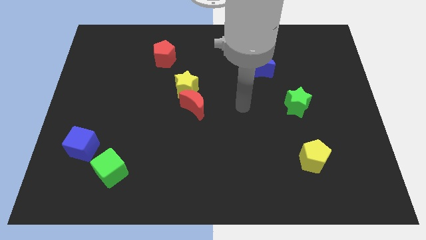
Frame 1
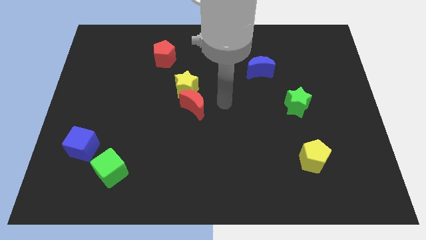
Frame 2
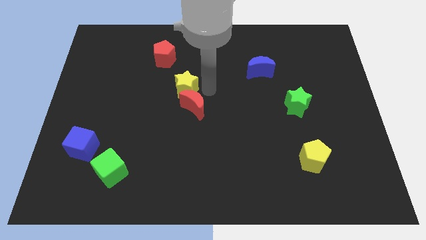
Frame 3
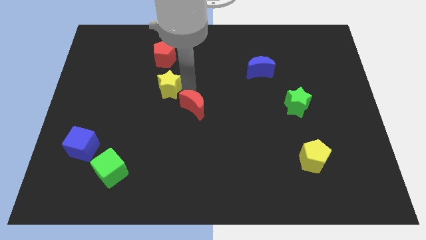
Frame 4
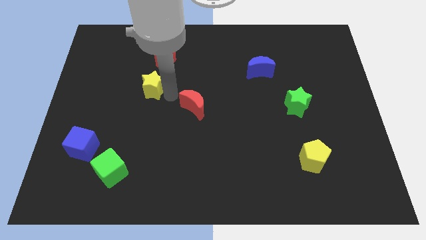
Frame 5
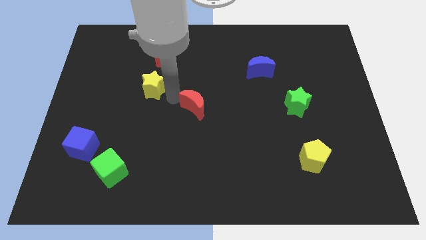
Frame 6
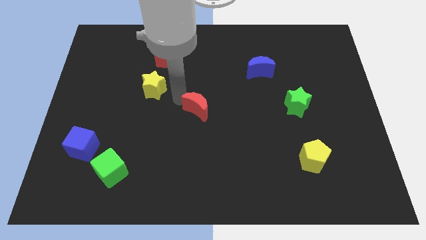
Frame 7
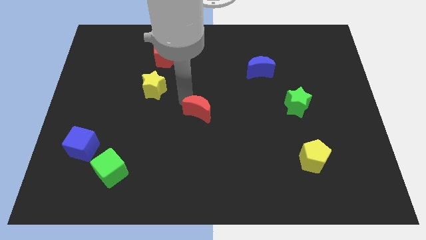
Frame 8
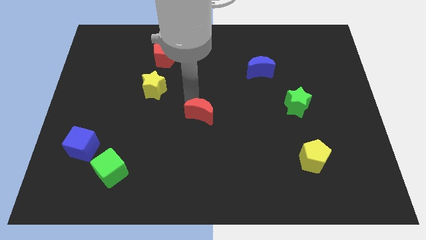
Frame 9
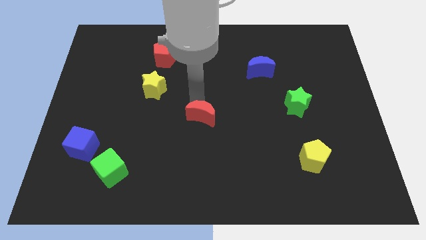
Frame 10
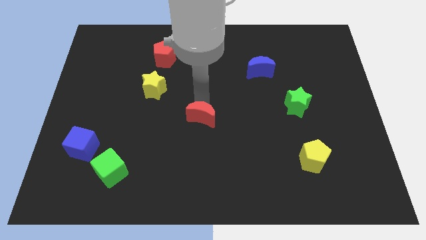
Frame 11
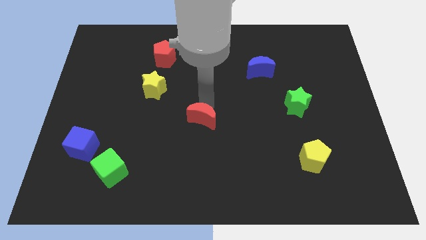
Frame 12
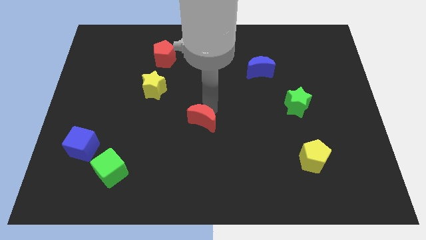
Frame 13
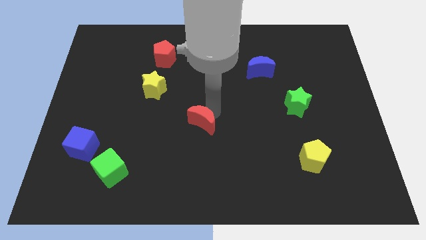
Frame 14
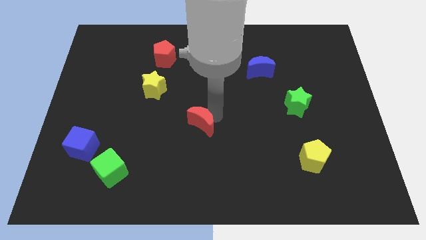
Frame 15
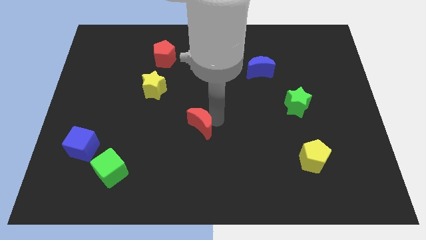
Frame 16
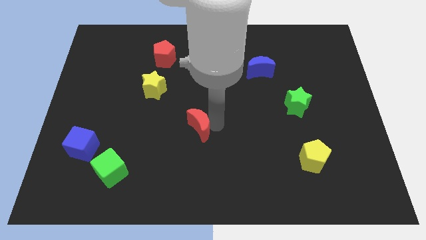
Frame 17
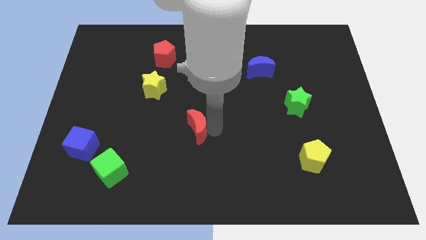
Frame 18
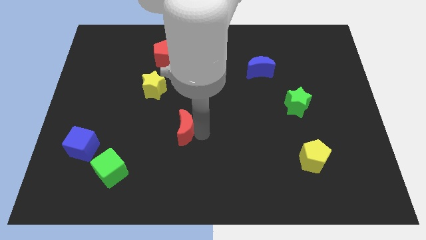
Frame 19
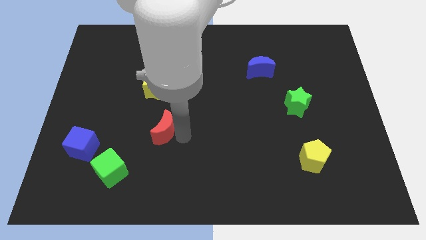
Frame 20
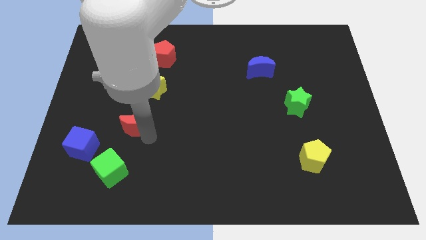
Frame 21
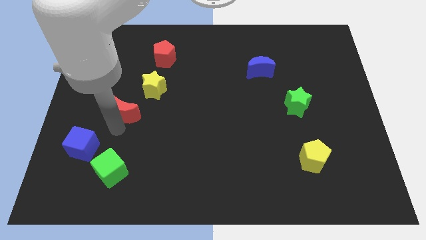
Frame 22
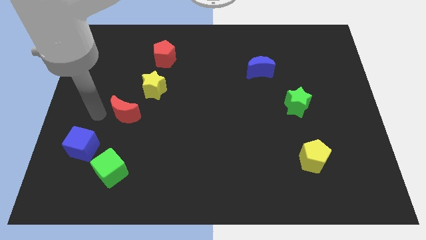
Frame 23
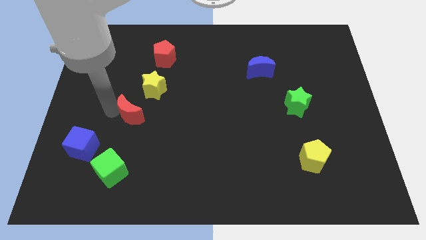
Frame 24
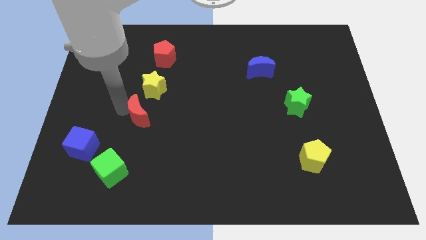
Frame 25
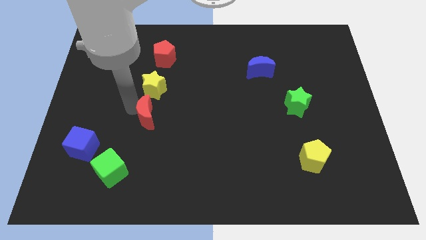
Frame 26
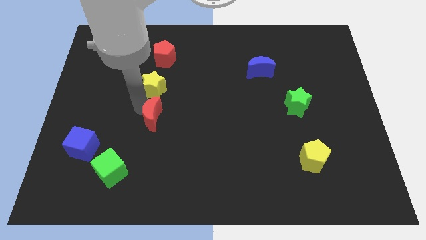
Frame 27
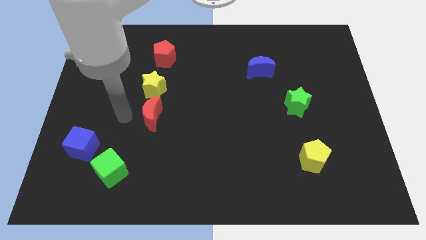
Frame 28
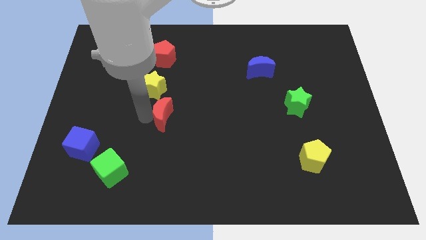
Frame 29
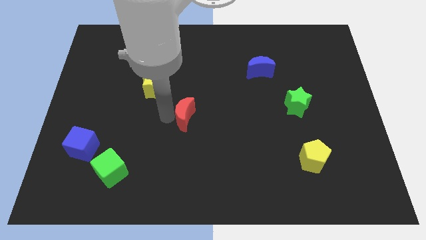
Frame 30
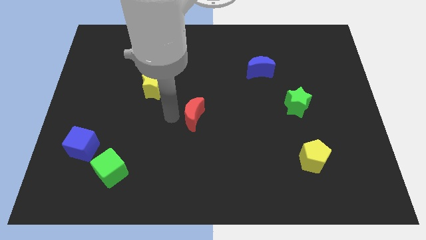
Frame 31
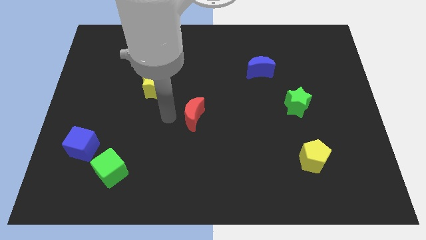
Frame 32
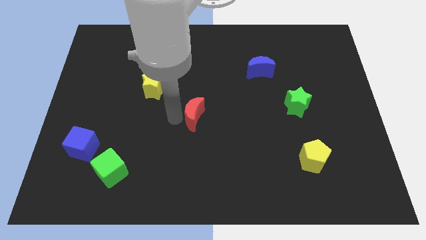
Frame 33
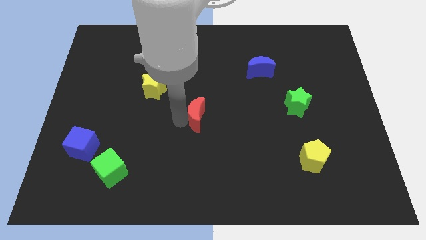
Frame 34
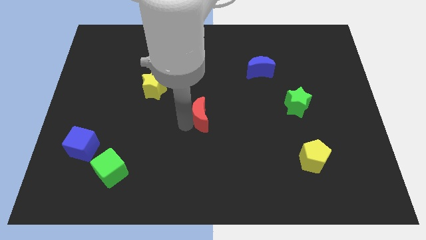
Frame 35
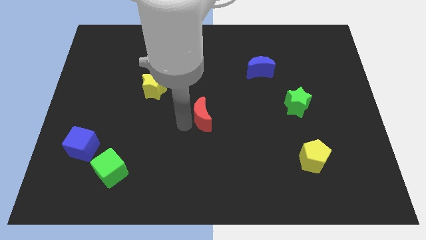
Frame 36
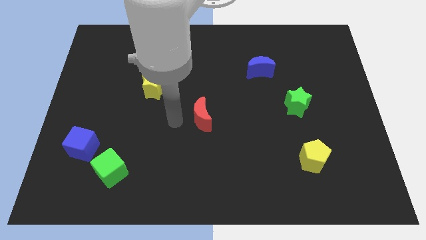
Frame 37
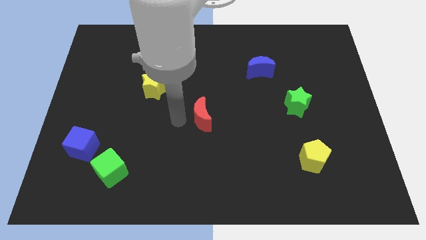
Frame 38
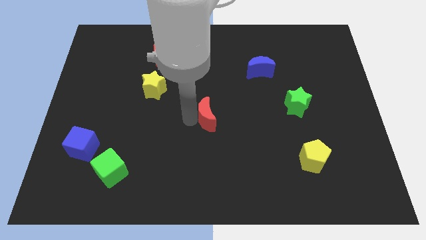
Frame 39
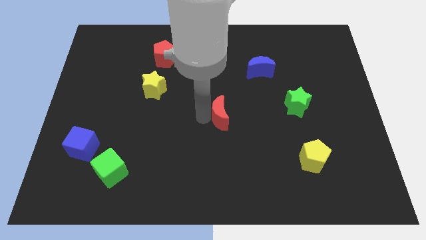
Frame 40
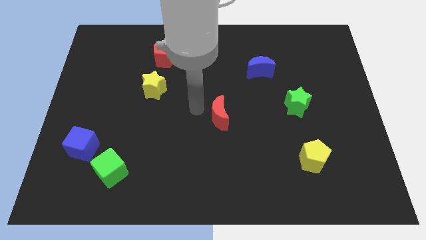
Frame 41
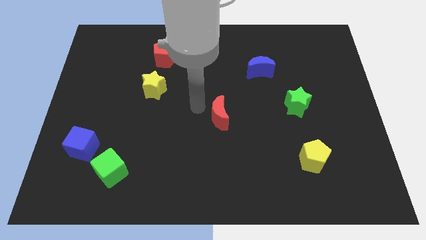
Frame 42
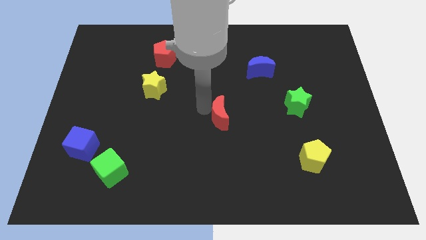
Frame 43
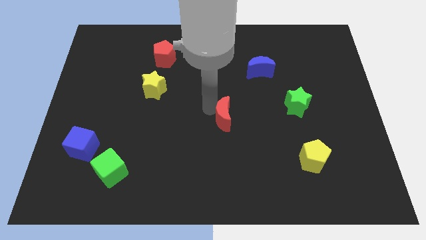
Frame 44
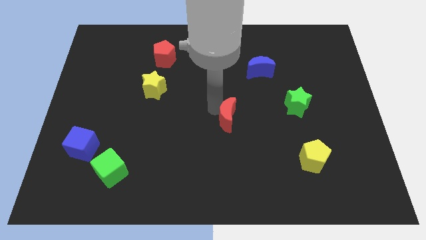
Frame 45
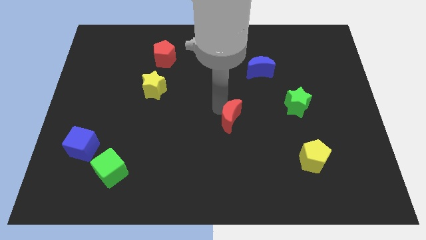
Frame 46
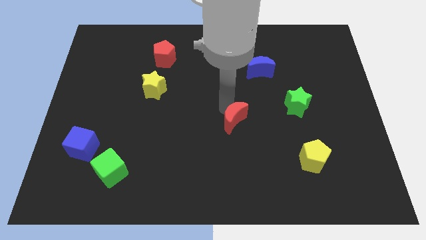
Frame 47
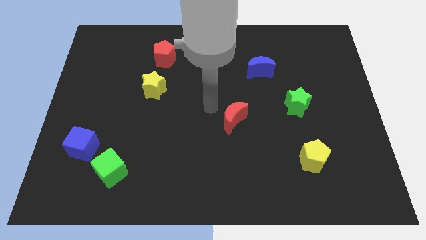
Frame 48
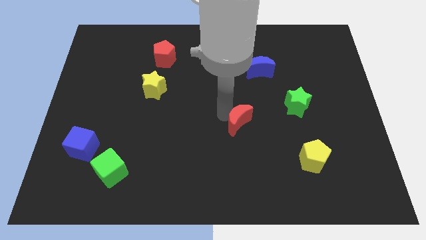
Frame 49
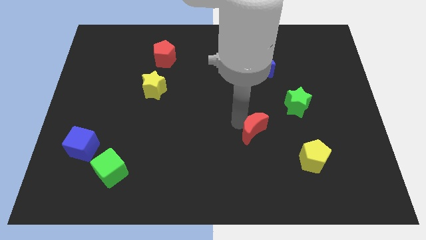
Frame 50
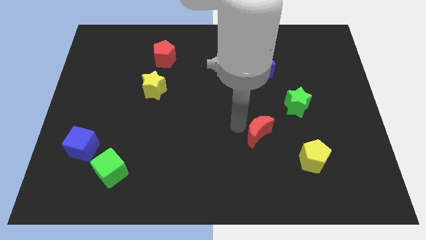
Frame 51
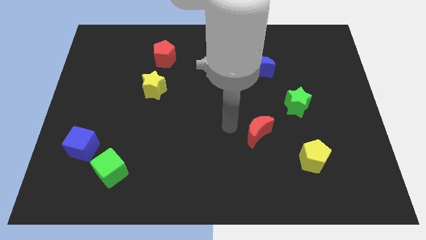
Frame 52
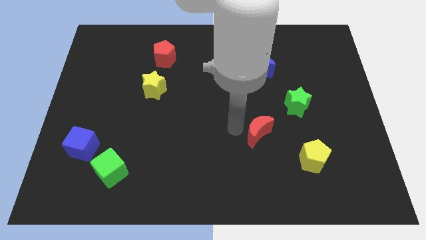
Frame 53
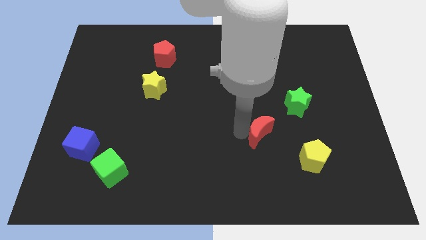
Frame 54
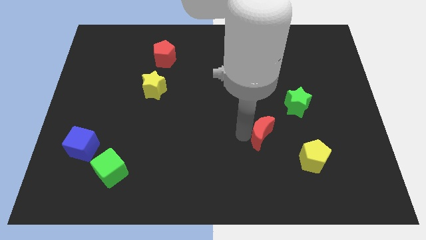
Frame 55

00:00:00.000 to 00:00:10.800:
move the red moon to the top left side of the yellow pentagon

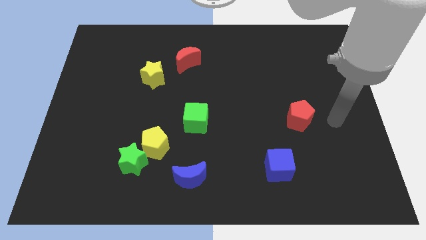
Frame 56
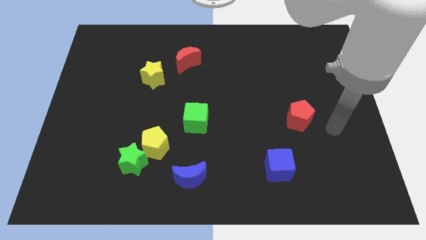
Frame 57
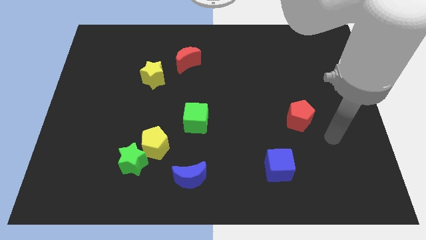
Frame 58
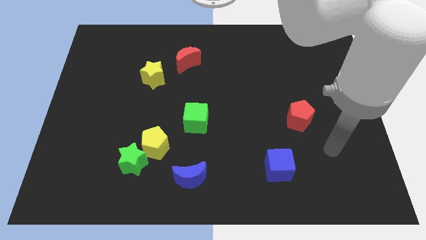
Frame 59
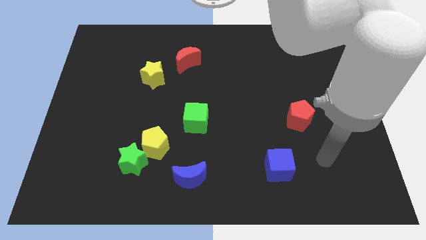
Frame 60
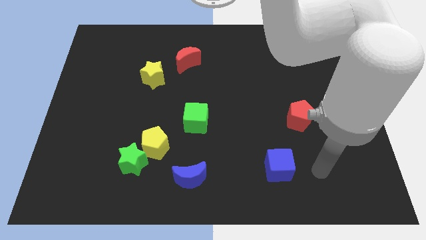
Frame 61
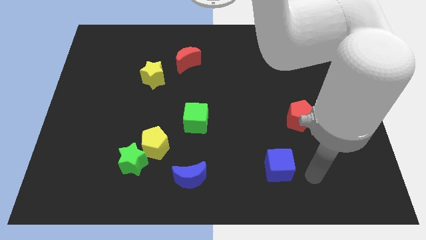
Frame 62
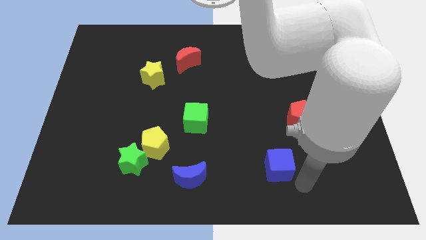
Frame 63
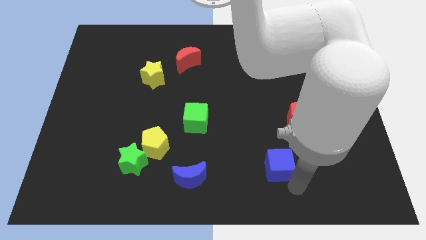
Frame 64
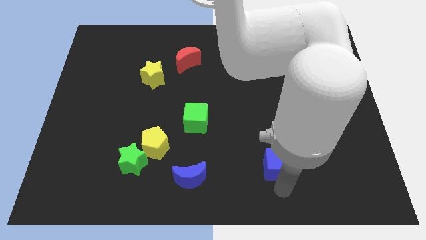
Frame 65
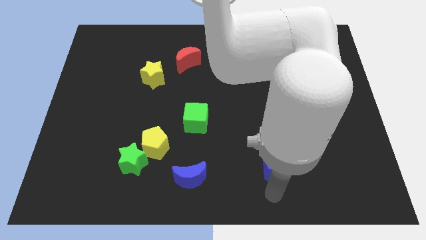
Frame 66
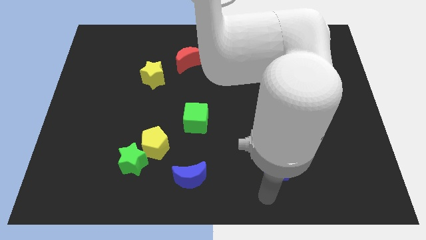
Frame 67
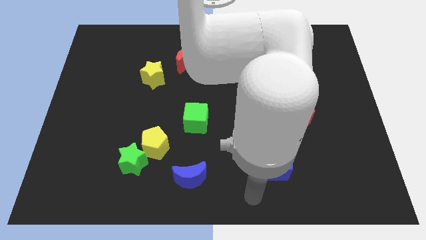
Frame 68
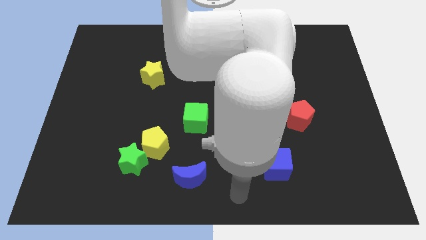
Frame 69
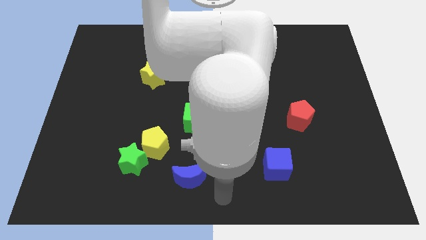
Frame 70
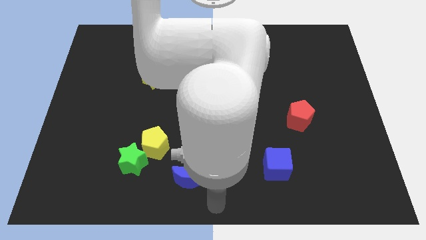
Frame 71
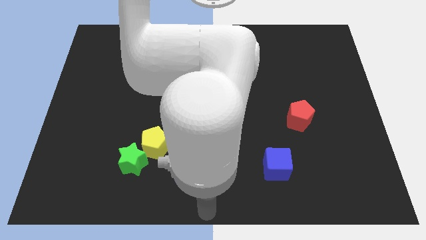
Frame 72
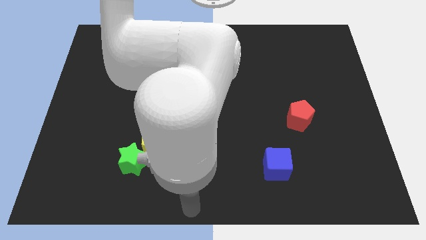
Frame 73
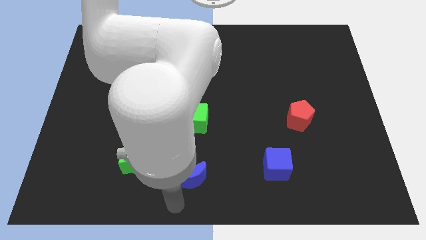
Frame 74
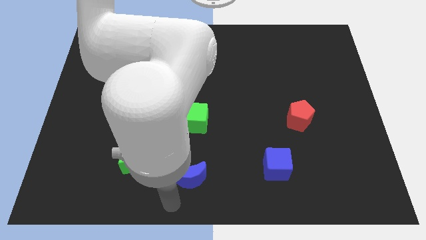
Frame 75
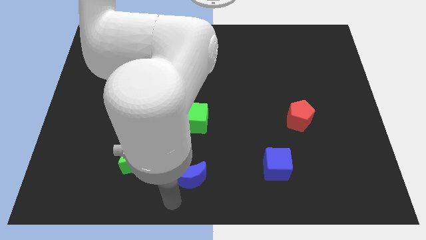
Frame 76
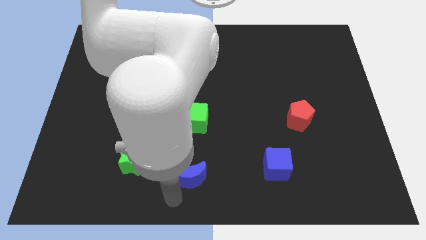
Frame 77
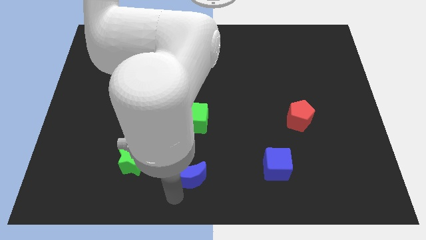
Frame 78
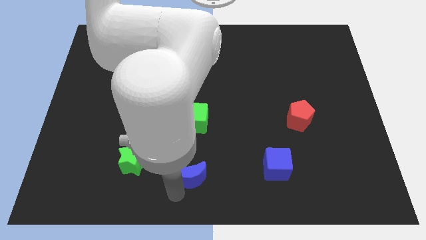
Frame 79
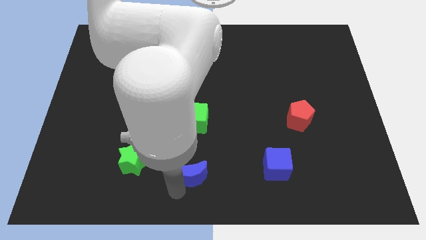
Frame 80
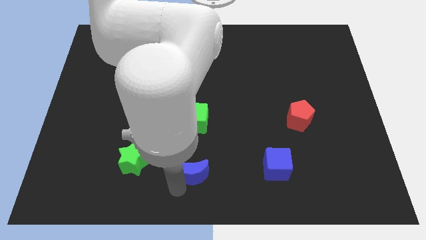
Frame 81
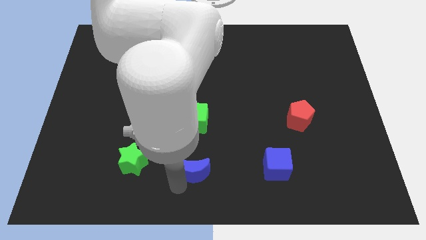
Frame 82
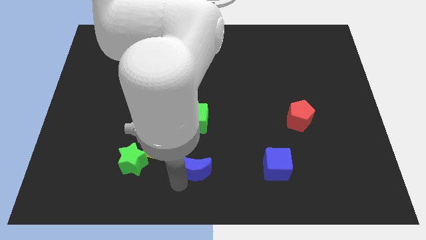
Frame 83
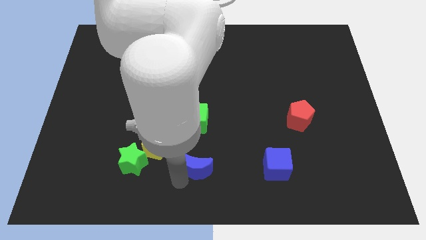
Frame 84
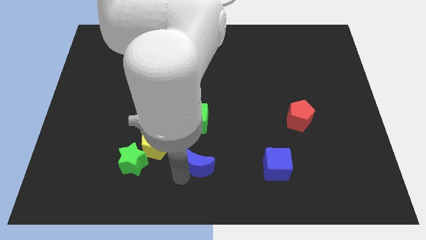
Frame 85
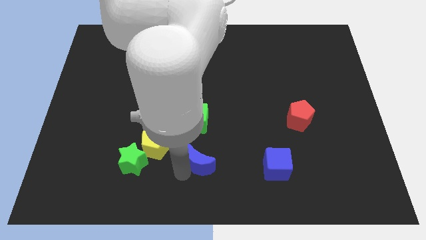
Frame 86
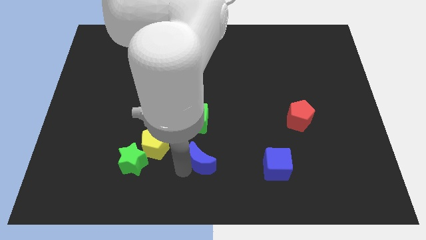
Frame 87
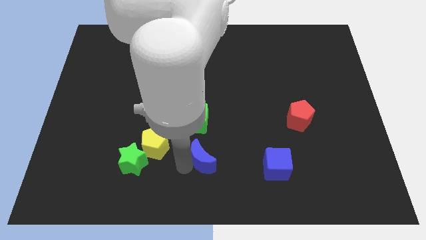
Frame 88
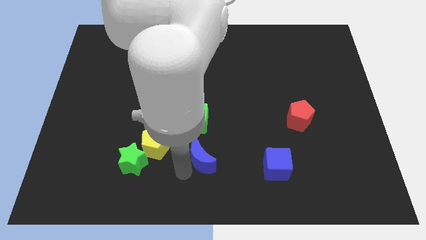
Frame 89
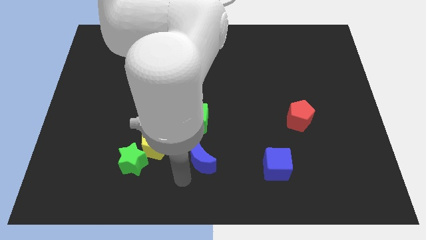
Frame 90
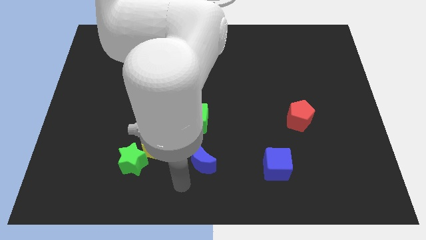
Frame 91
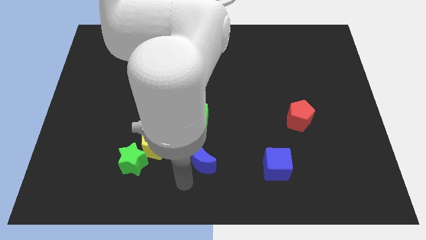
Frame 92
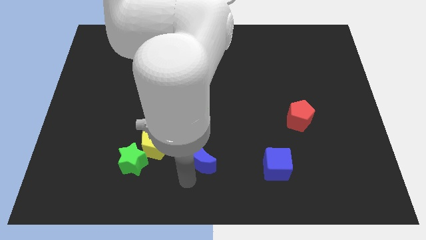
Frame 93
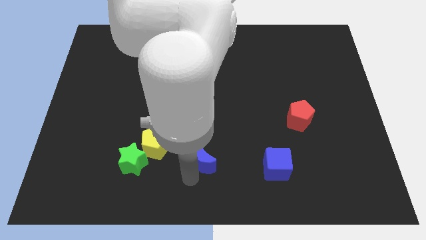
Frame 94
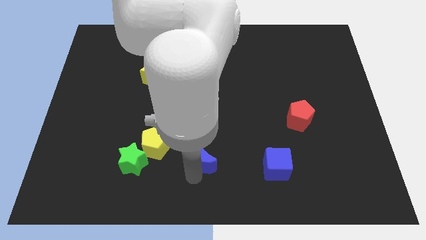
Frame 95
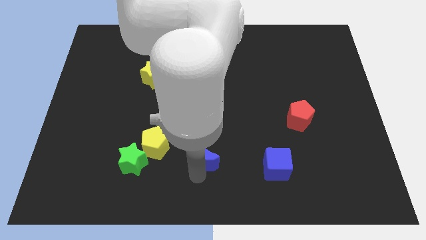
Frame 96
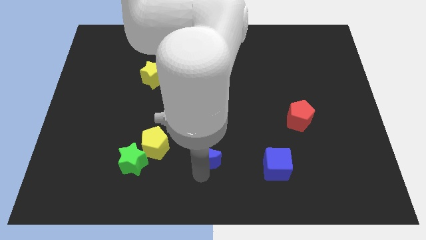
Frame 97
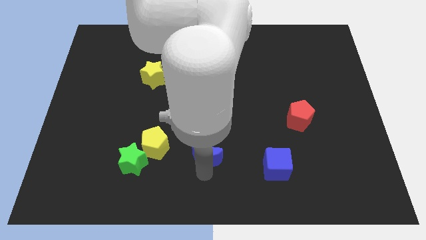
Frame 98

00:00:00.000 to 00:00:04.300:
push the blue moon to the bottom right side of the green cube
